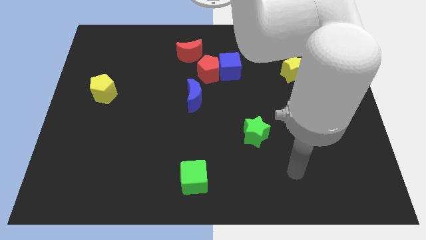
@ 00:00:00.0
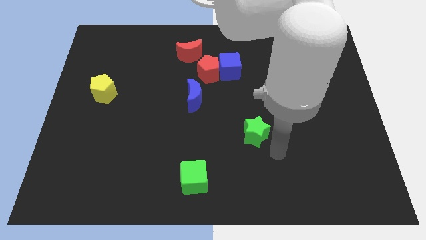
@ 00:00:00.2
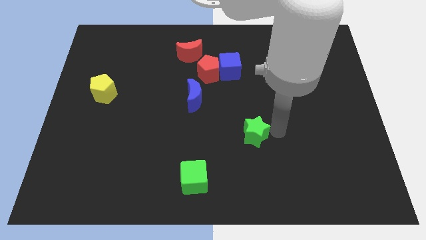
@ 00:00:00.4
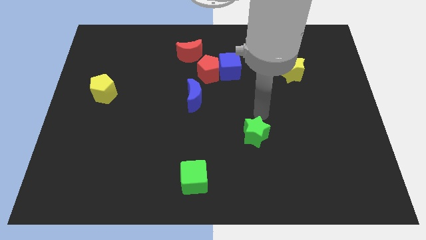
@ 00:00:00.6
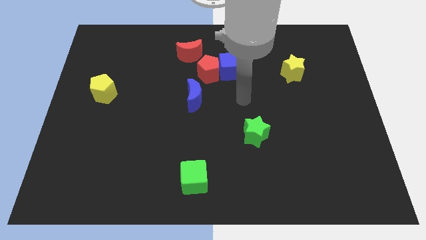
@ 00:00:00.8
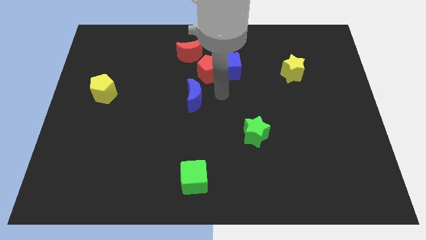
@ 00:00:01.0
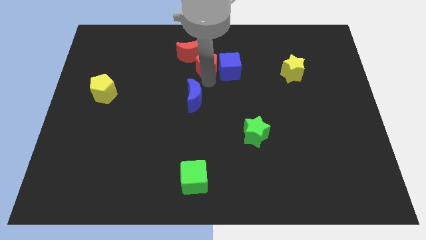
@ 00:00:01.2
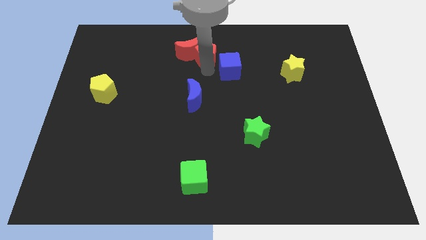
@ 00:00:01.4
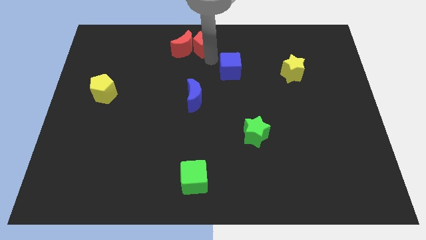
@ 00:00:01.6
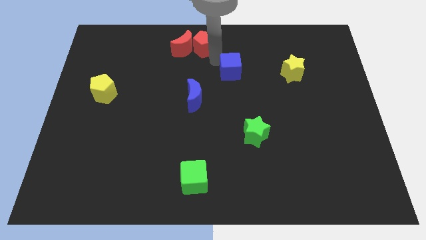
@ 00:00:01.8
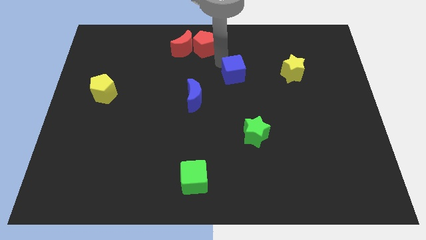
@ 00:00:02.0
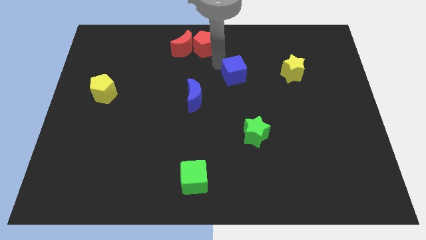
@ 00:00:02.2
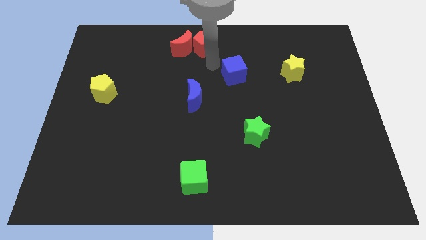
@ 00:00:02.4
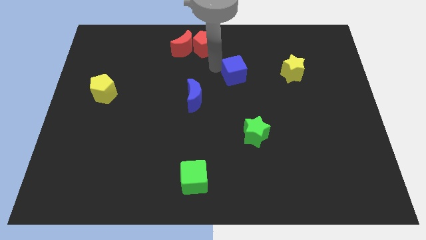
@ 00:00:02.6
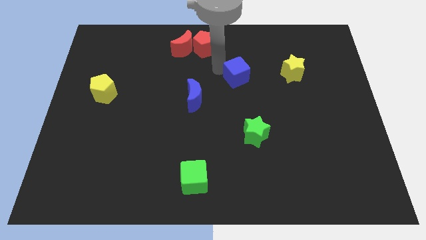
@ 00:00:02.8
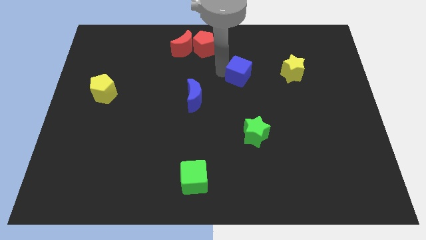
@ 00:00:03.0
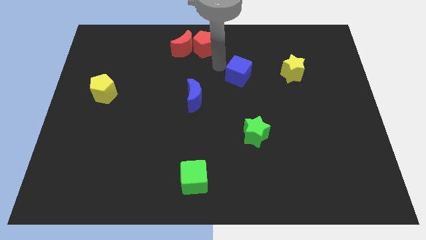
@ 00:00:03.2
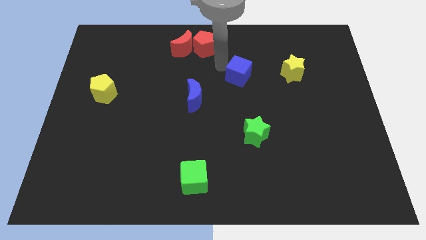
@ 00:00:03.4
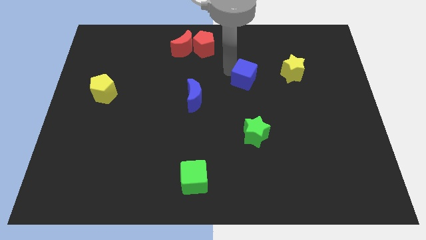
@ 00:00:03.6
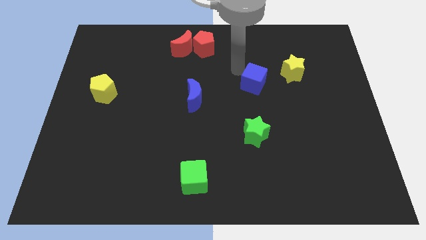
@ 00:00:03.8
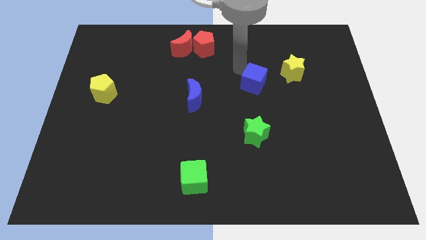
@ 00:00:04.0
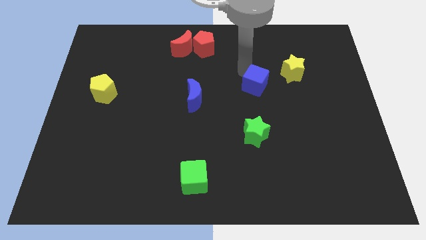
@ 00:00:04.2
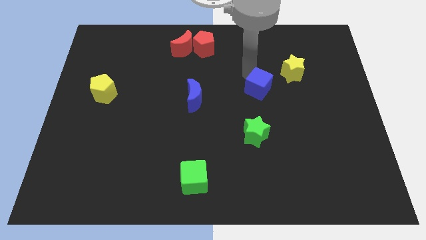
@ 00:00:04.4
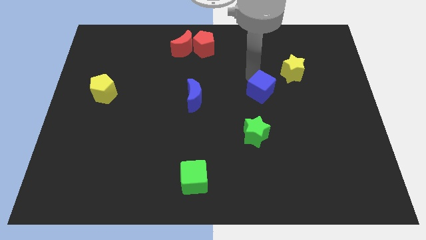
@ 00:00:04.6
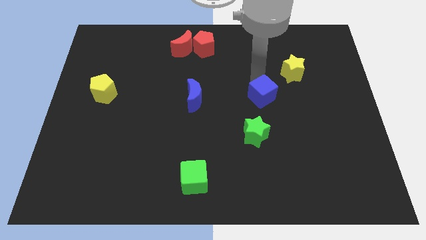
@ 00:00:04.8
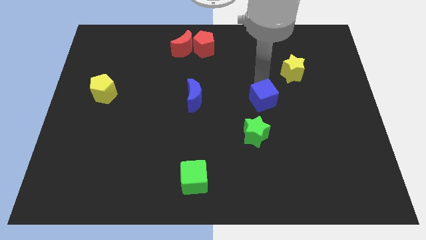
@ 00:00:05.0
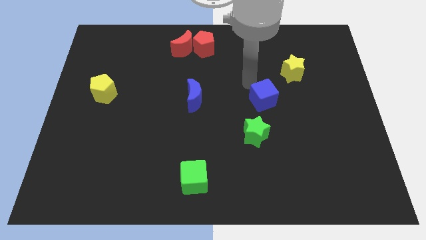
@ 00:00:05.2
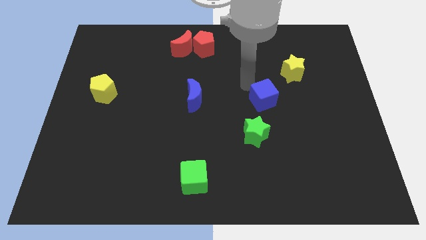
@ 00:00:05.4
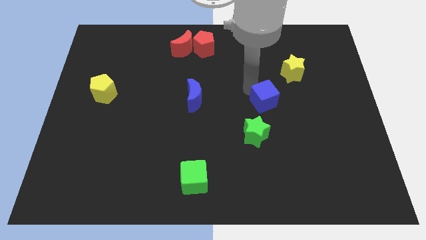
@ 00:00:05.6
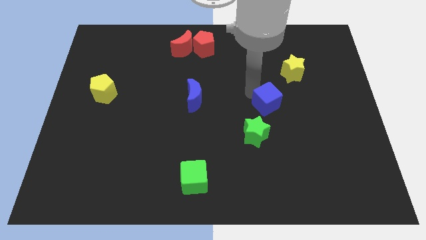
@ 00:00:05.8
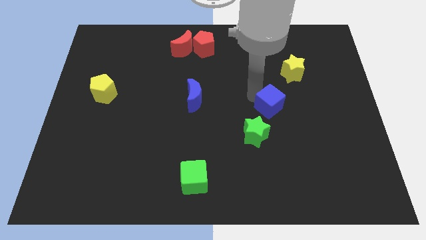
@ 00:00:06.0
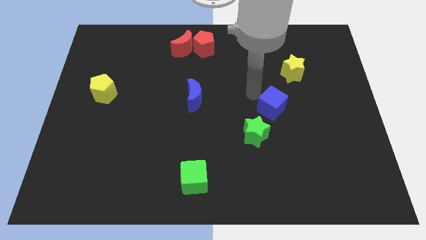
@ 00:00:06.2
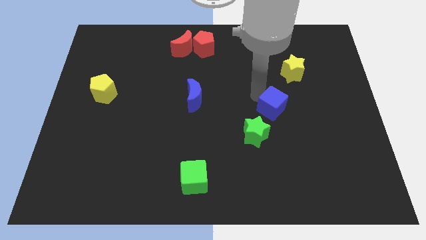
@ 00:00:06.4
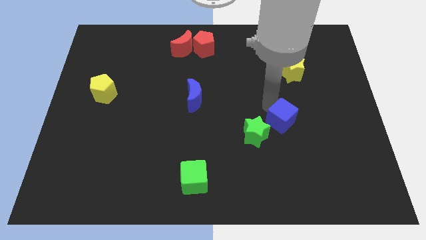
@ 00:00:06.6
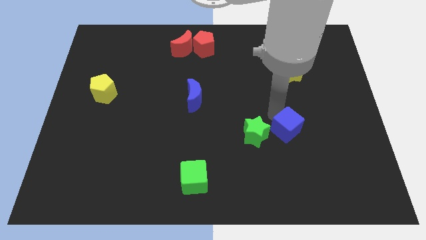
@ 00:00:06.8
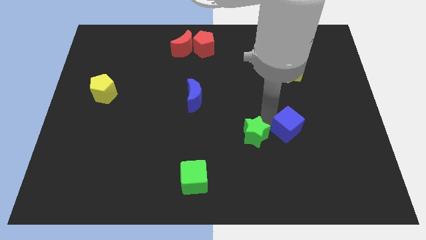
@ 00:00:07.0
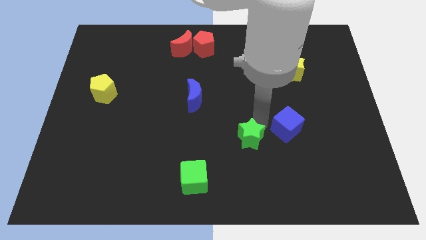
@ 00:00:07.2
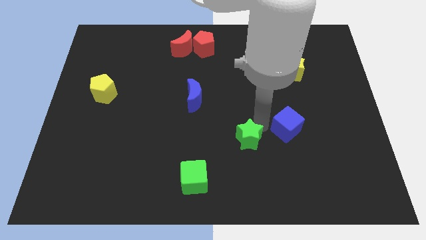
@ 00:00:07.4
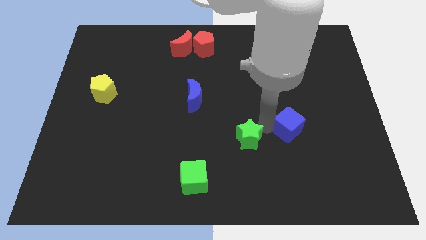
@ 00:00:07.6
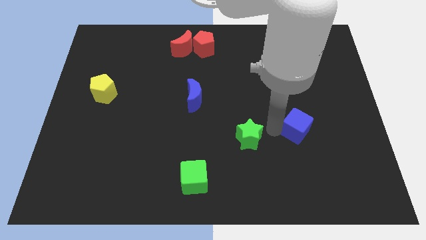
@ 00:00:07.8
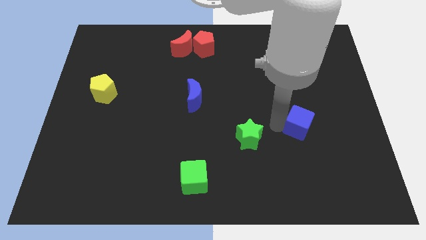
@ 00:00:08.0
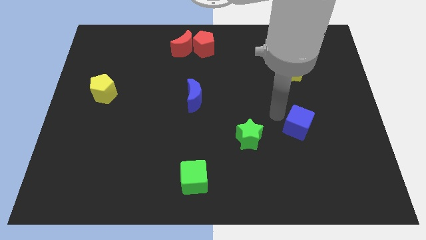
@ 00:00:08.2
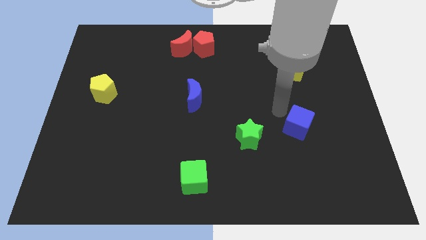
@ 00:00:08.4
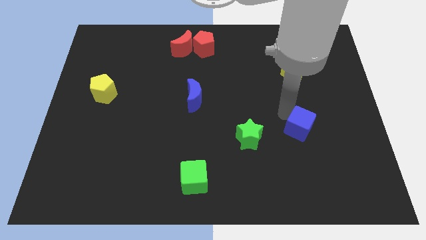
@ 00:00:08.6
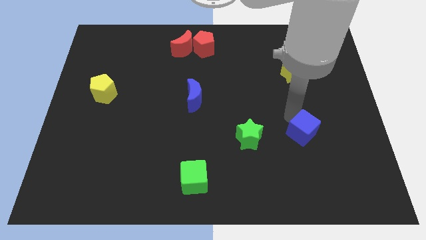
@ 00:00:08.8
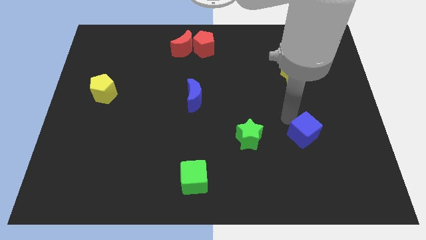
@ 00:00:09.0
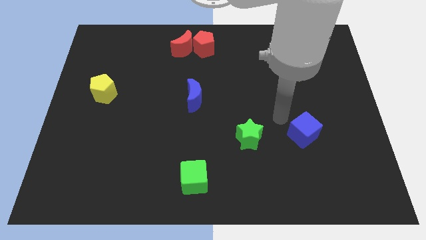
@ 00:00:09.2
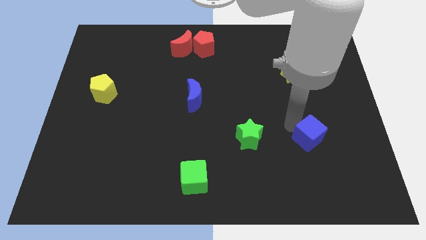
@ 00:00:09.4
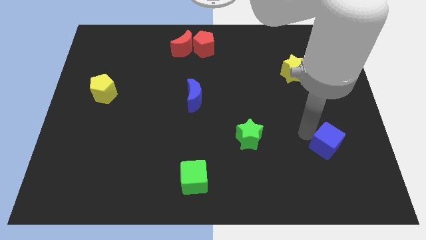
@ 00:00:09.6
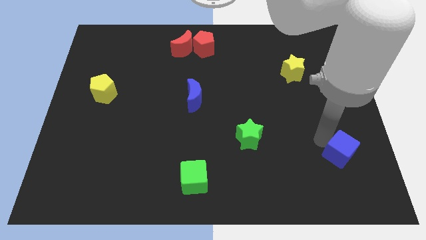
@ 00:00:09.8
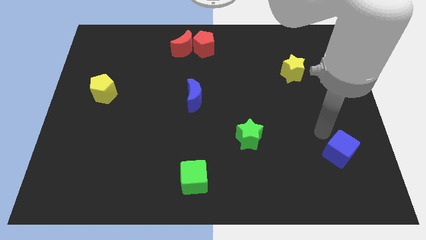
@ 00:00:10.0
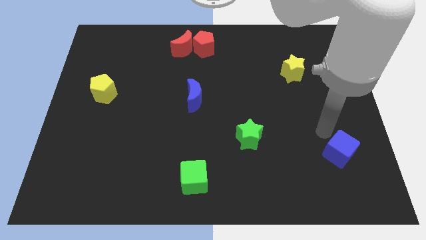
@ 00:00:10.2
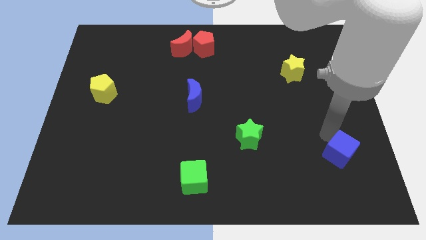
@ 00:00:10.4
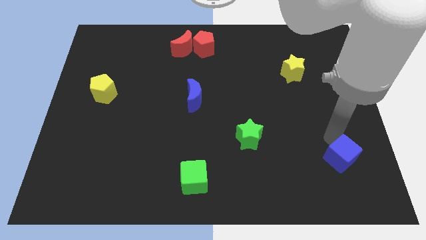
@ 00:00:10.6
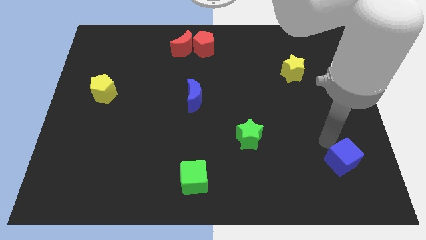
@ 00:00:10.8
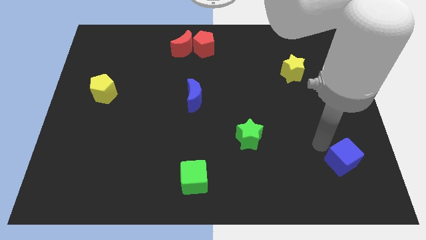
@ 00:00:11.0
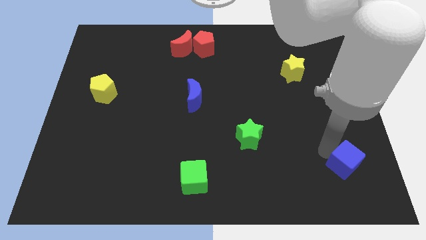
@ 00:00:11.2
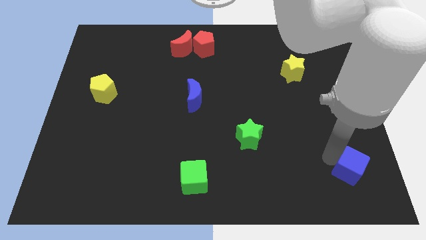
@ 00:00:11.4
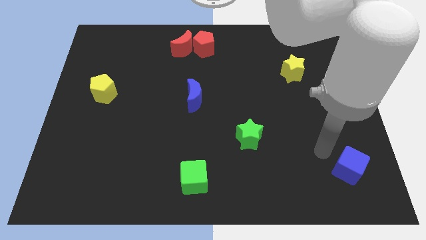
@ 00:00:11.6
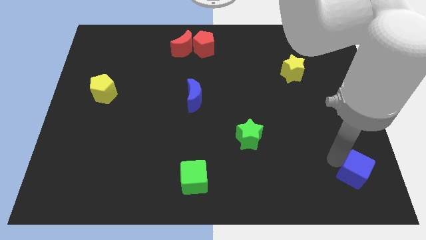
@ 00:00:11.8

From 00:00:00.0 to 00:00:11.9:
push the blue cube to the bottom right
